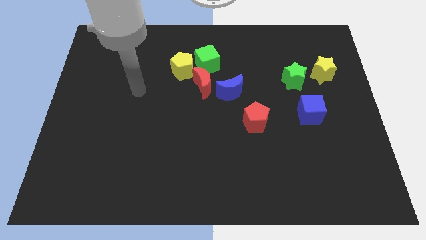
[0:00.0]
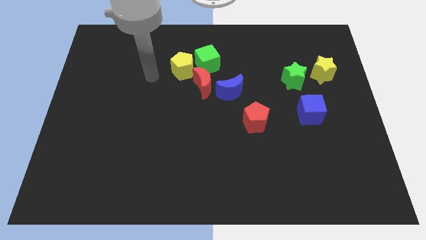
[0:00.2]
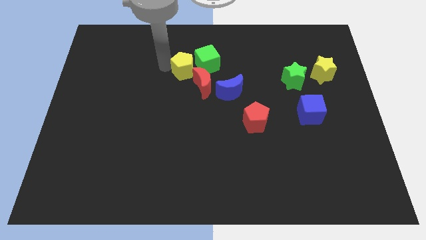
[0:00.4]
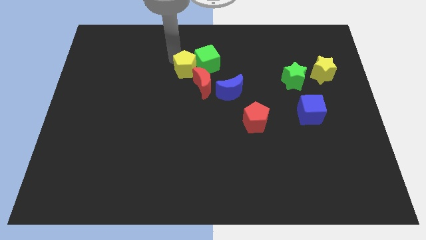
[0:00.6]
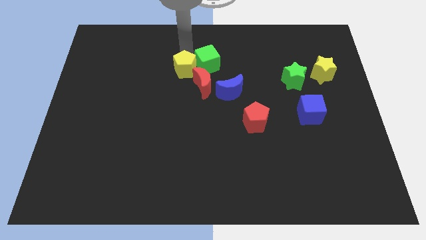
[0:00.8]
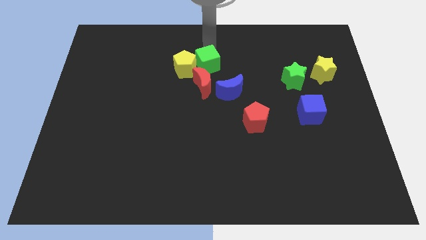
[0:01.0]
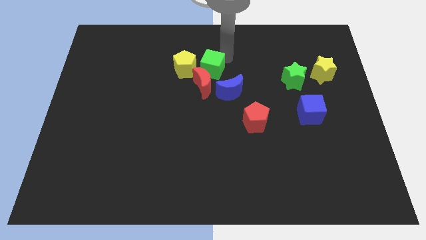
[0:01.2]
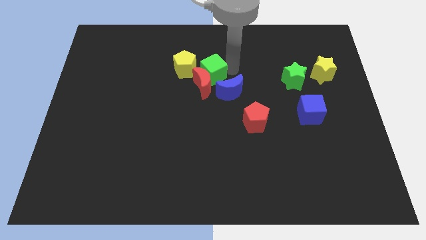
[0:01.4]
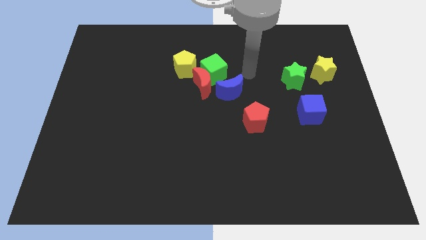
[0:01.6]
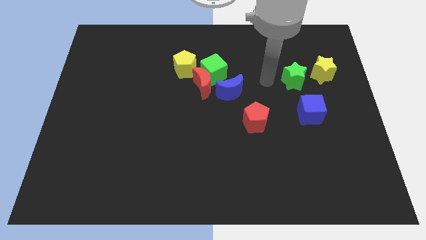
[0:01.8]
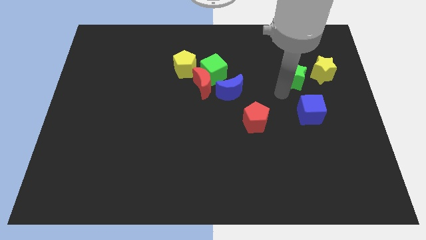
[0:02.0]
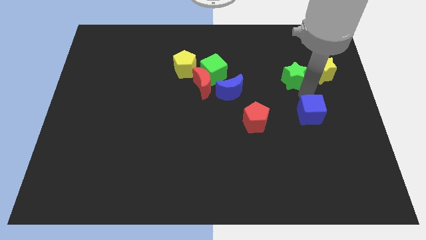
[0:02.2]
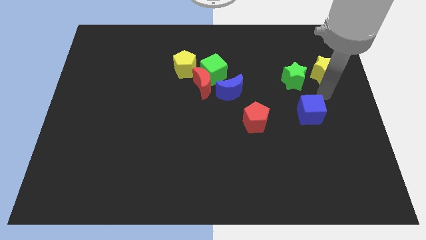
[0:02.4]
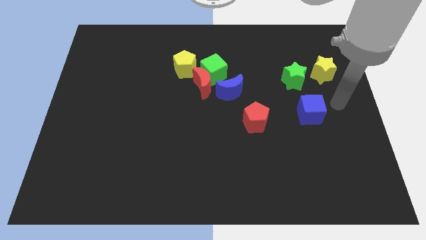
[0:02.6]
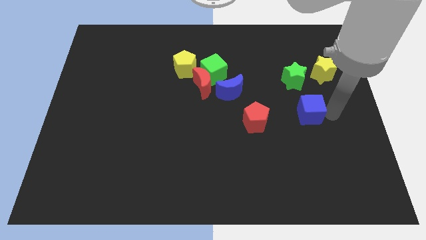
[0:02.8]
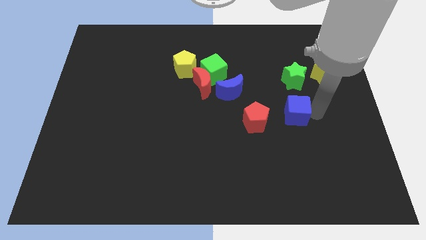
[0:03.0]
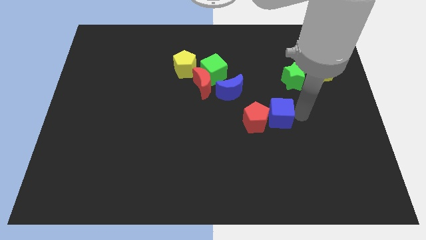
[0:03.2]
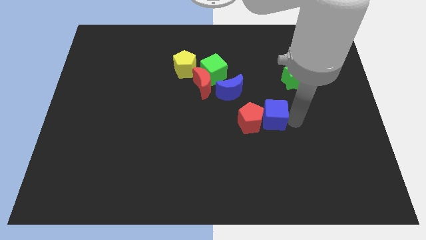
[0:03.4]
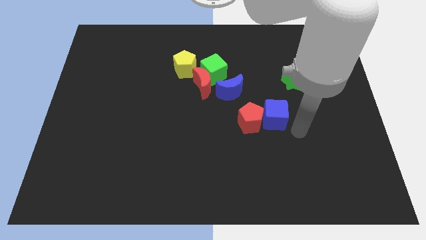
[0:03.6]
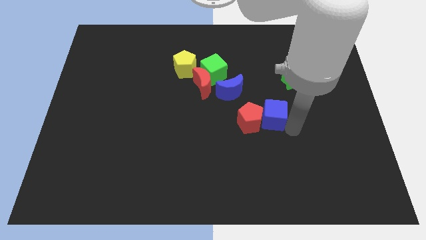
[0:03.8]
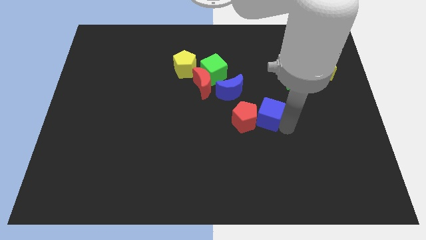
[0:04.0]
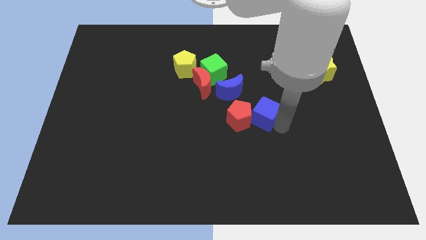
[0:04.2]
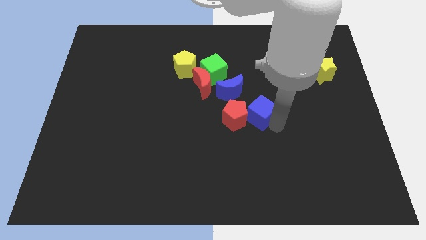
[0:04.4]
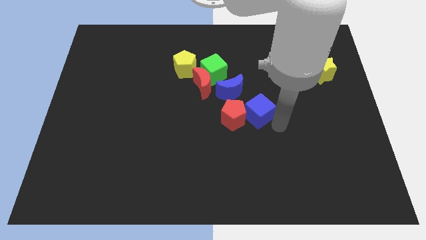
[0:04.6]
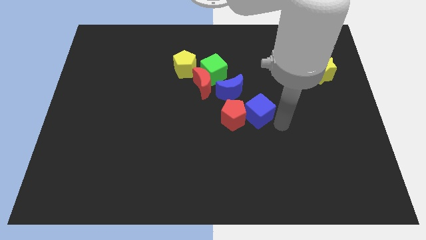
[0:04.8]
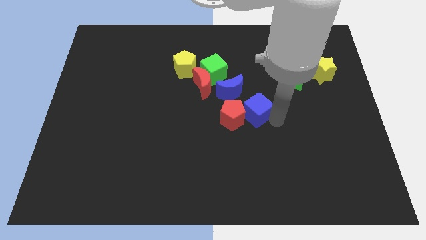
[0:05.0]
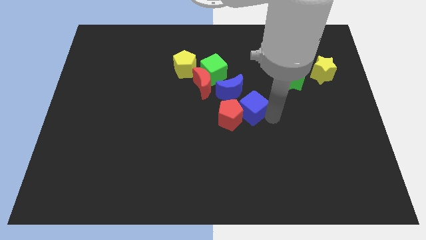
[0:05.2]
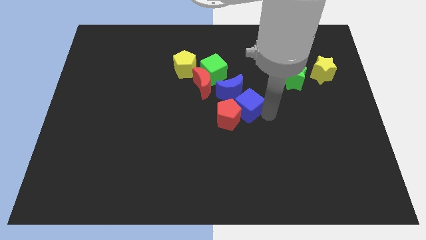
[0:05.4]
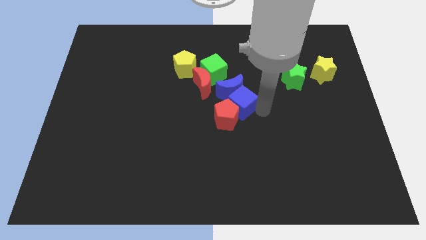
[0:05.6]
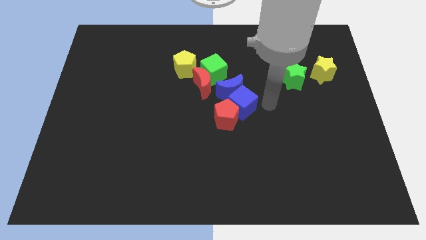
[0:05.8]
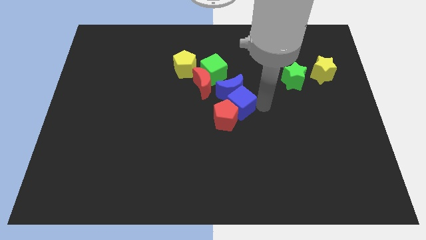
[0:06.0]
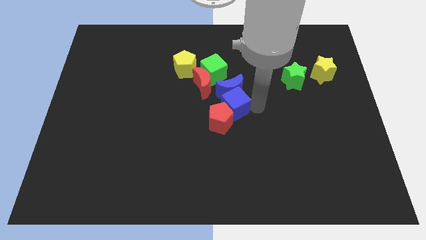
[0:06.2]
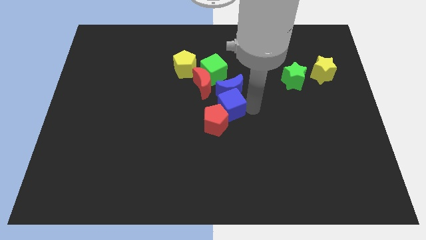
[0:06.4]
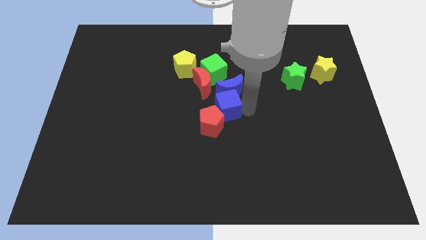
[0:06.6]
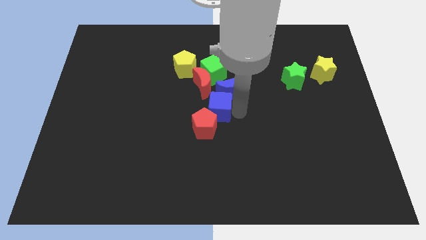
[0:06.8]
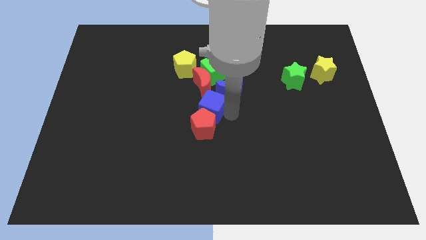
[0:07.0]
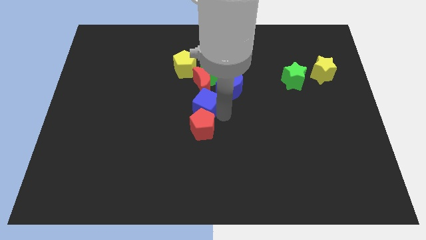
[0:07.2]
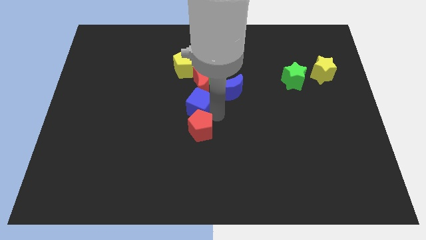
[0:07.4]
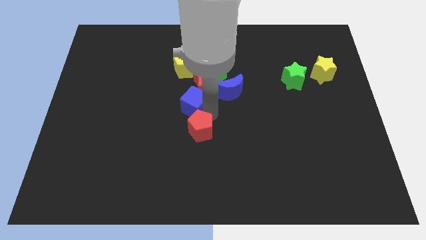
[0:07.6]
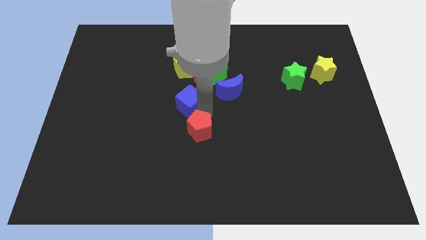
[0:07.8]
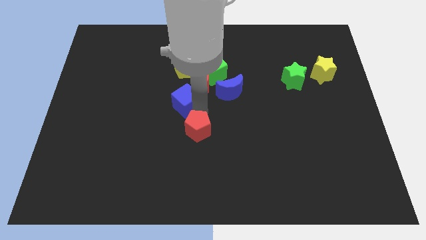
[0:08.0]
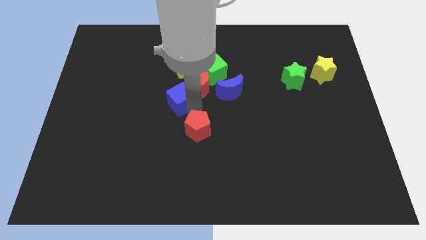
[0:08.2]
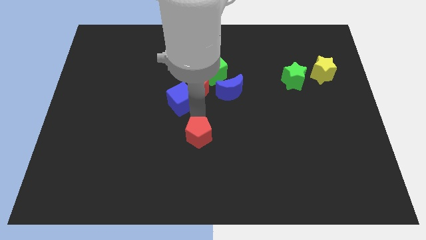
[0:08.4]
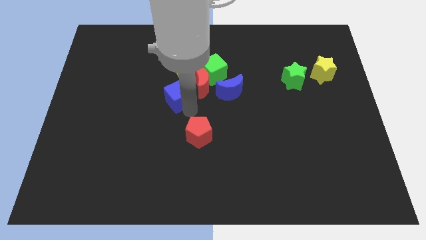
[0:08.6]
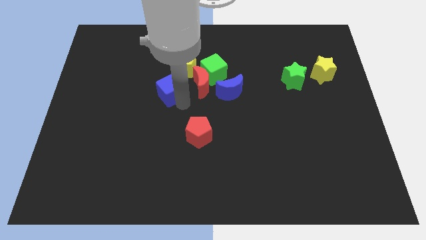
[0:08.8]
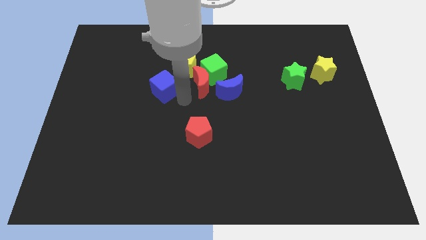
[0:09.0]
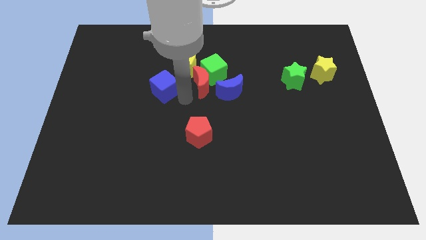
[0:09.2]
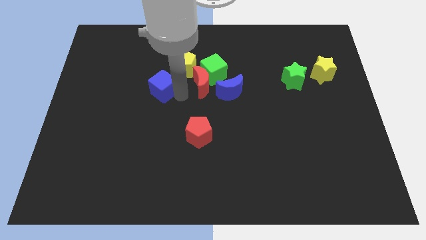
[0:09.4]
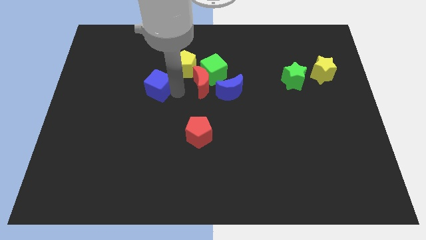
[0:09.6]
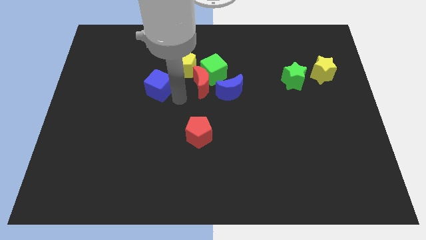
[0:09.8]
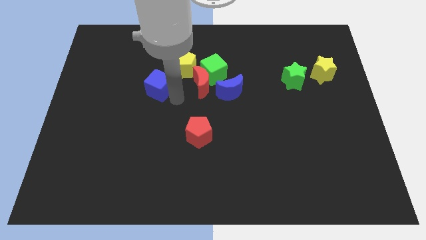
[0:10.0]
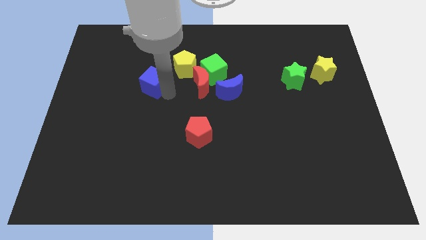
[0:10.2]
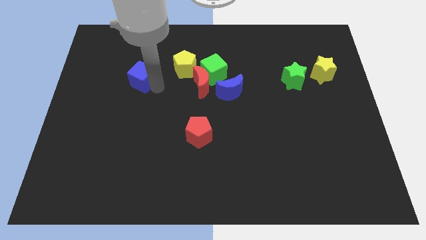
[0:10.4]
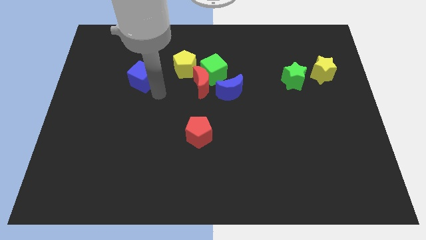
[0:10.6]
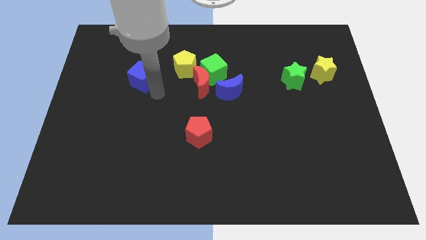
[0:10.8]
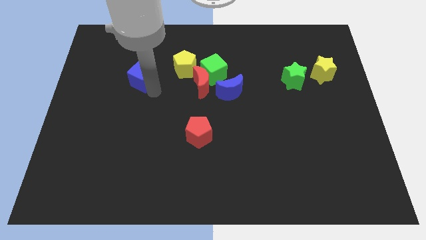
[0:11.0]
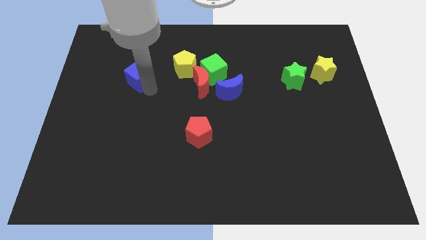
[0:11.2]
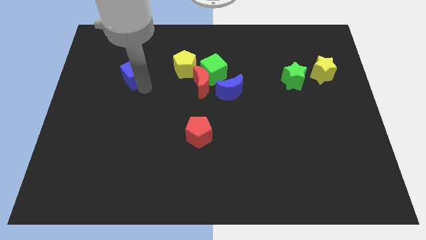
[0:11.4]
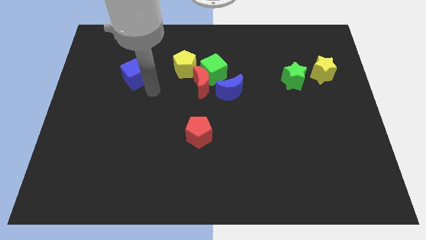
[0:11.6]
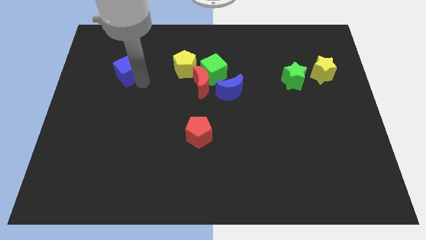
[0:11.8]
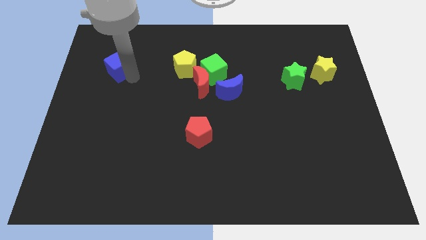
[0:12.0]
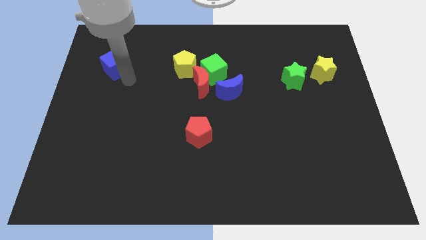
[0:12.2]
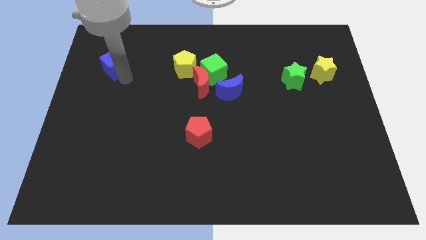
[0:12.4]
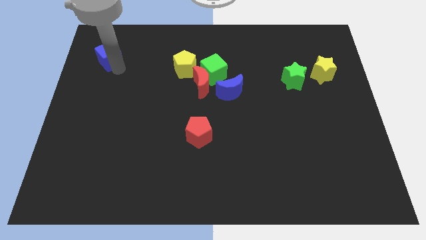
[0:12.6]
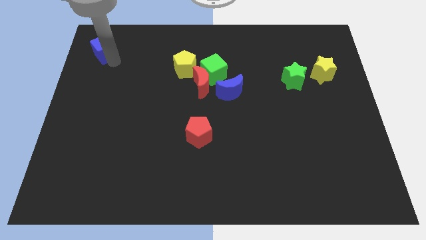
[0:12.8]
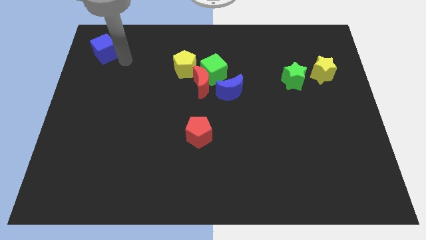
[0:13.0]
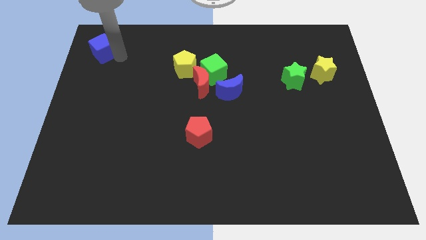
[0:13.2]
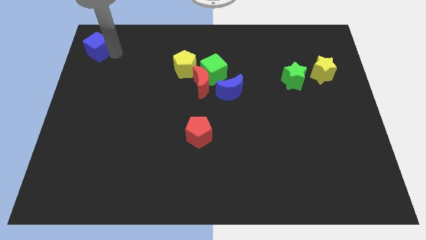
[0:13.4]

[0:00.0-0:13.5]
move the blue cube to the upper left corner
